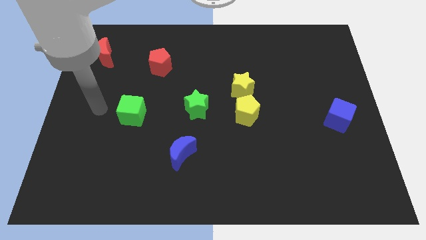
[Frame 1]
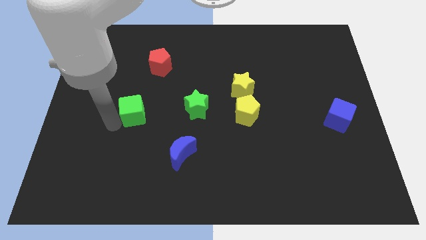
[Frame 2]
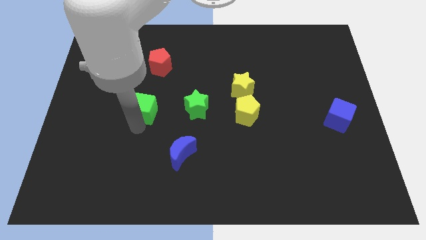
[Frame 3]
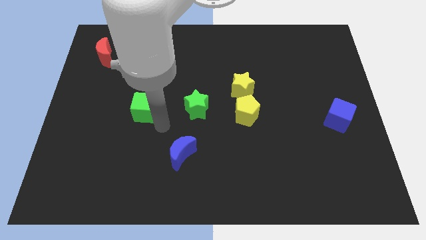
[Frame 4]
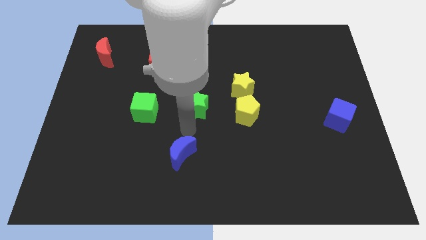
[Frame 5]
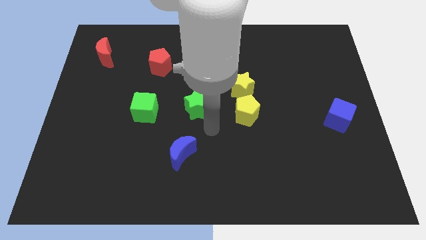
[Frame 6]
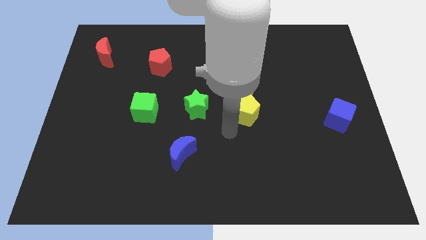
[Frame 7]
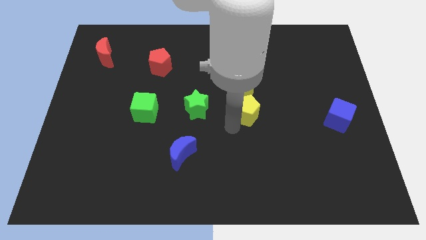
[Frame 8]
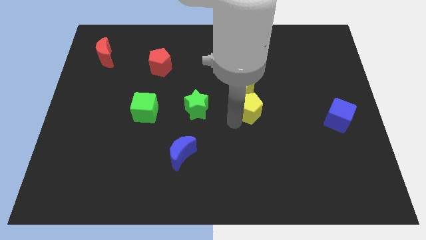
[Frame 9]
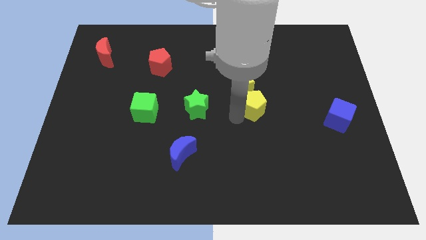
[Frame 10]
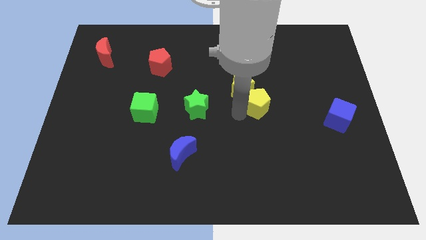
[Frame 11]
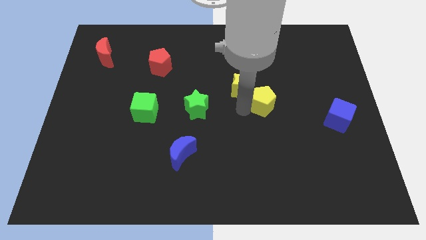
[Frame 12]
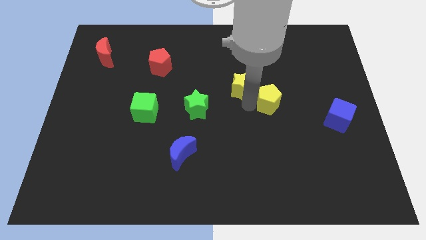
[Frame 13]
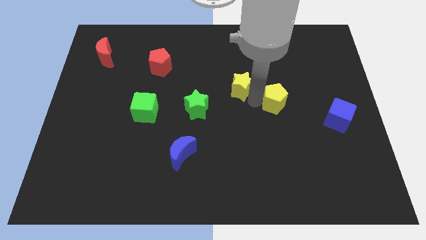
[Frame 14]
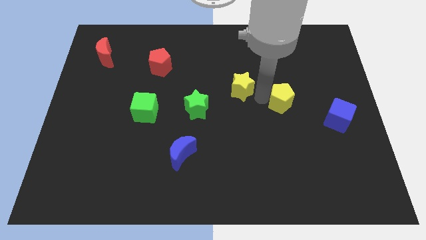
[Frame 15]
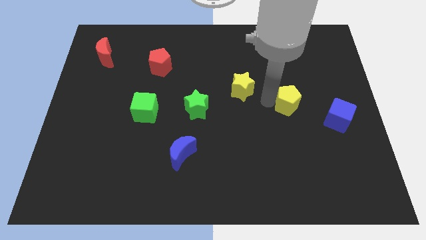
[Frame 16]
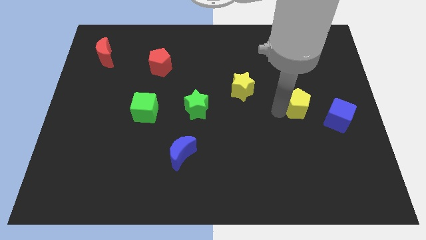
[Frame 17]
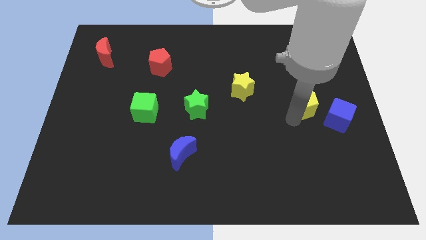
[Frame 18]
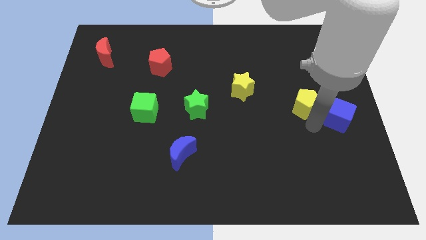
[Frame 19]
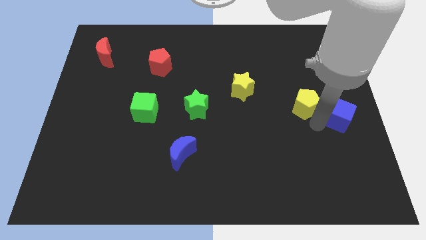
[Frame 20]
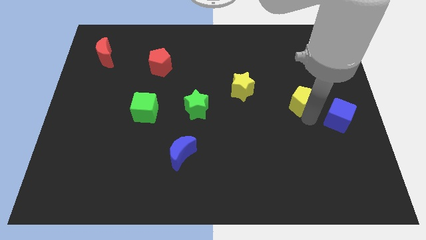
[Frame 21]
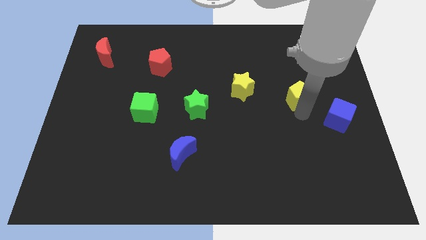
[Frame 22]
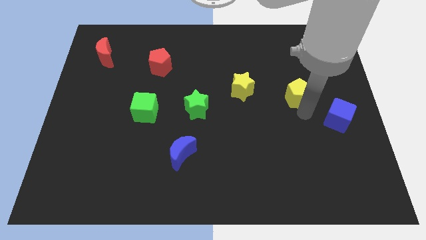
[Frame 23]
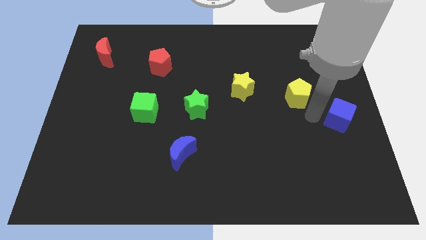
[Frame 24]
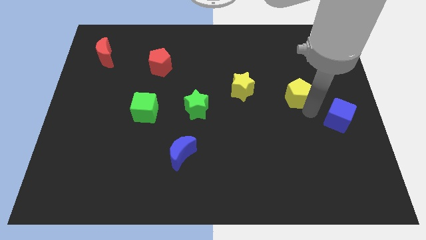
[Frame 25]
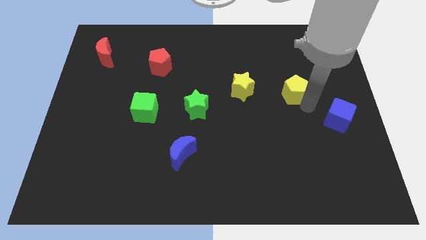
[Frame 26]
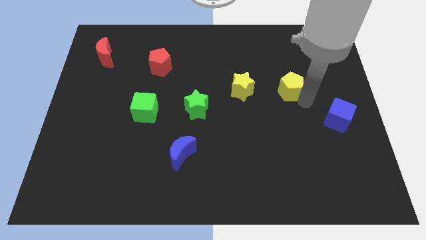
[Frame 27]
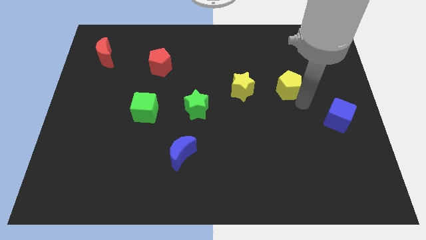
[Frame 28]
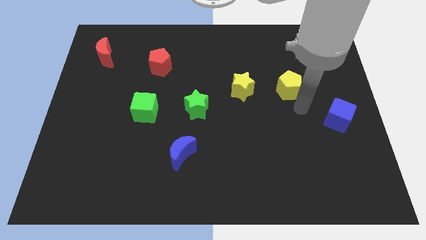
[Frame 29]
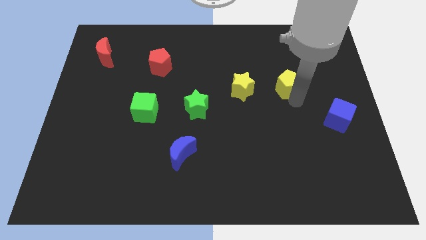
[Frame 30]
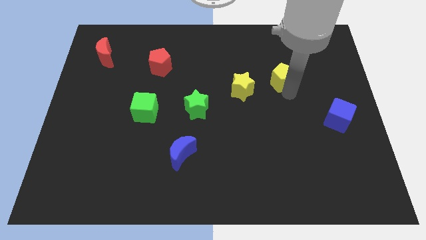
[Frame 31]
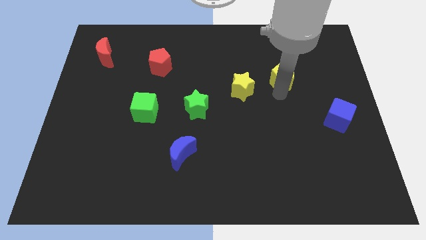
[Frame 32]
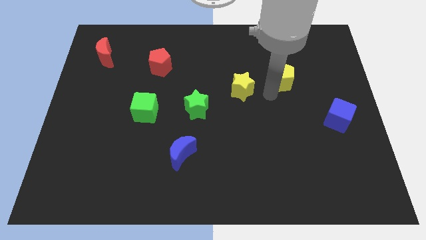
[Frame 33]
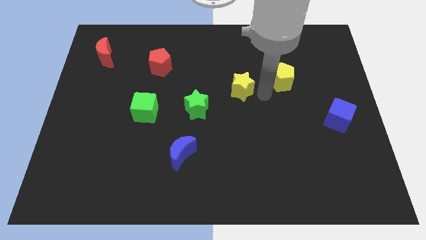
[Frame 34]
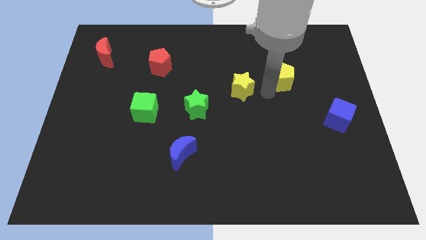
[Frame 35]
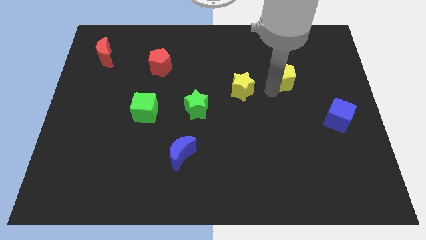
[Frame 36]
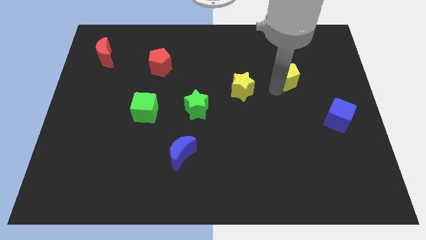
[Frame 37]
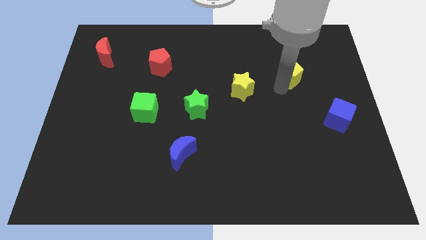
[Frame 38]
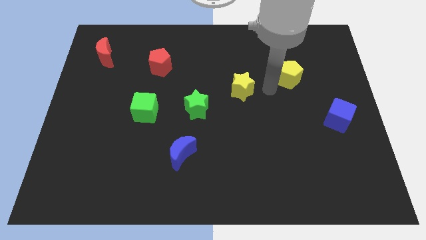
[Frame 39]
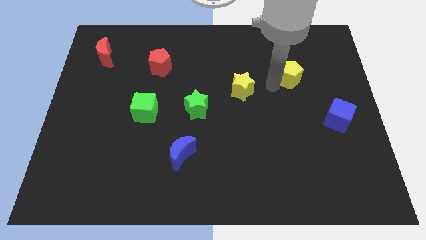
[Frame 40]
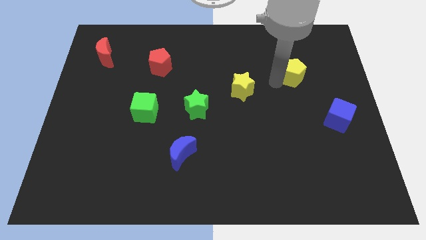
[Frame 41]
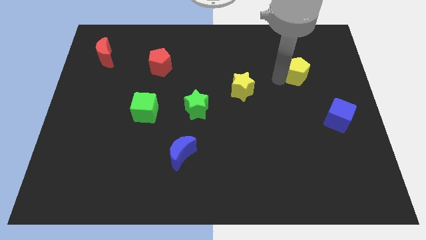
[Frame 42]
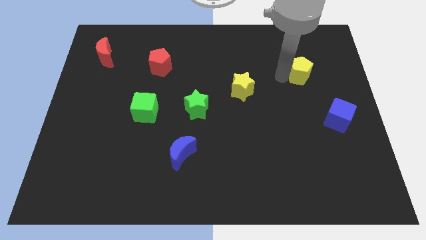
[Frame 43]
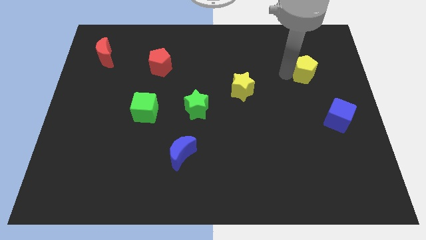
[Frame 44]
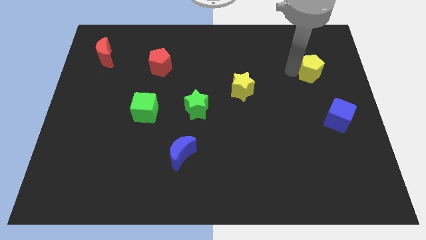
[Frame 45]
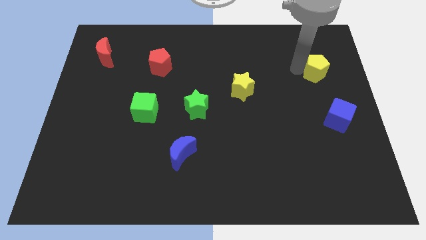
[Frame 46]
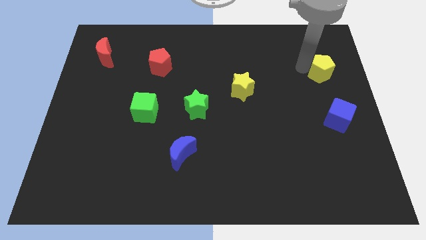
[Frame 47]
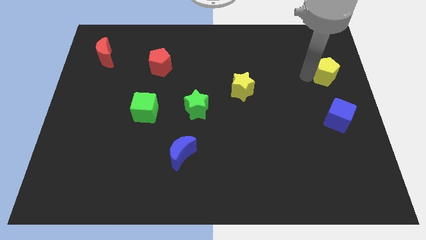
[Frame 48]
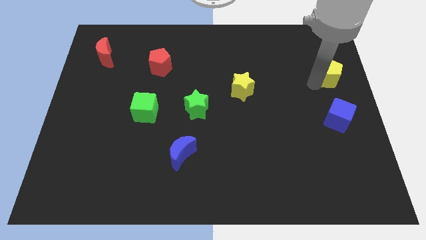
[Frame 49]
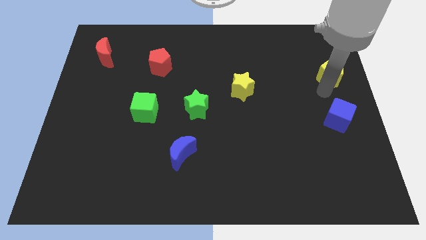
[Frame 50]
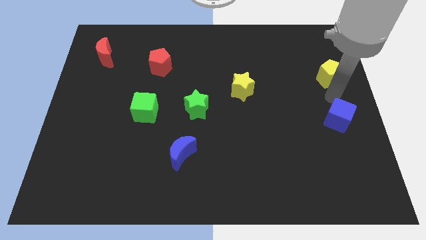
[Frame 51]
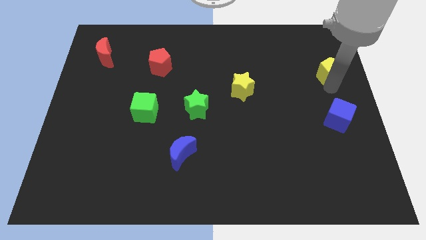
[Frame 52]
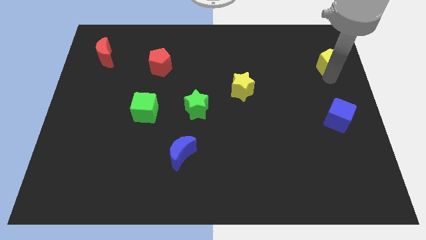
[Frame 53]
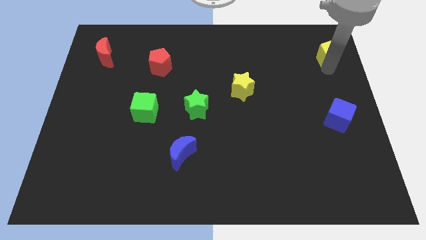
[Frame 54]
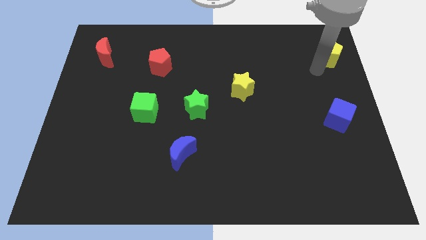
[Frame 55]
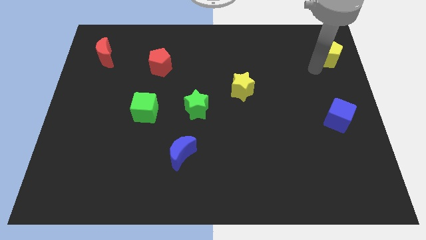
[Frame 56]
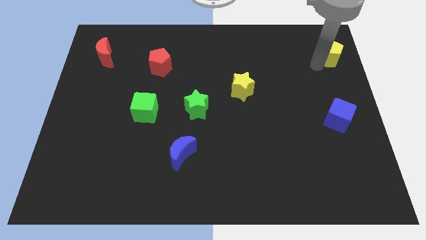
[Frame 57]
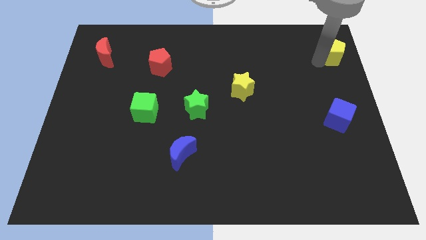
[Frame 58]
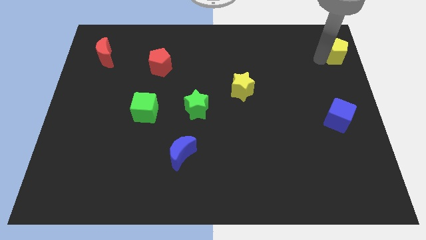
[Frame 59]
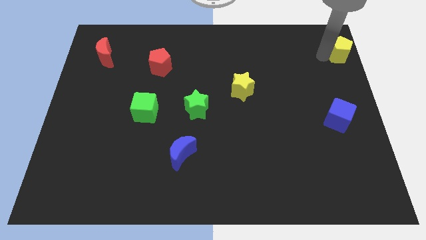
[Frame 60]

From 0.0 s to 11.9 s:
put the yellow pentagon to the top right of the board
